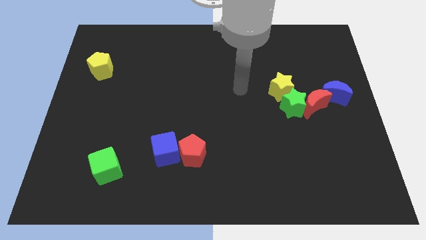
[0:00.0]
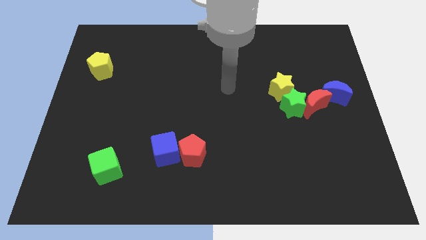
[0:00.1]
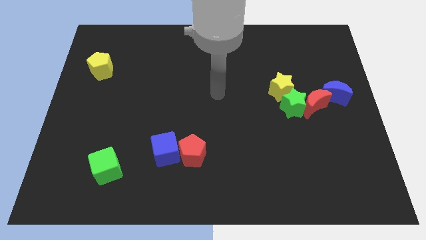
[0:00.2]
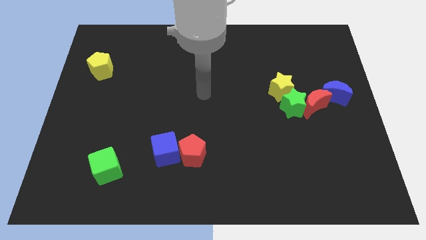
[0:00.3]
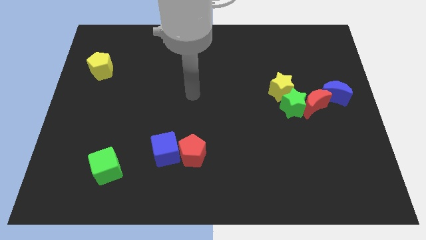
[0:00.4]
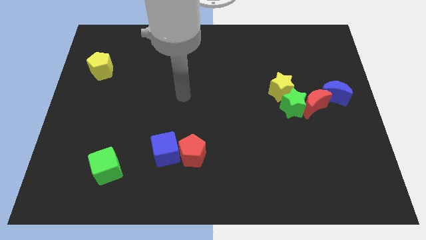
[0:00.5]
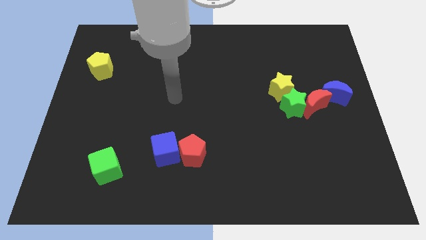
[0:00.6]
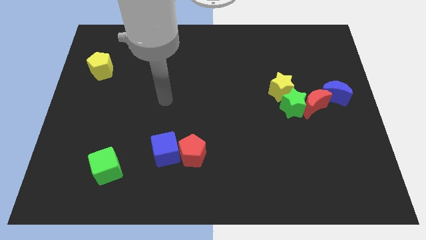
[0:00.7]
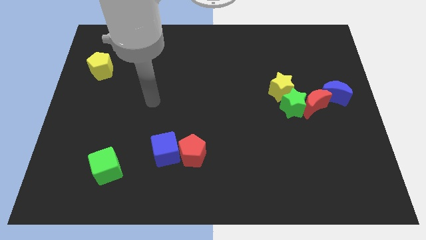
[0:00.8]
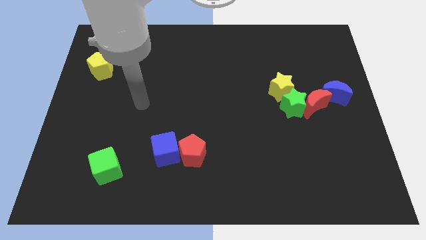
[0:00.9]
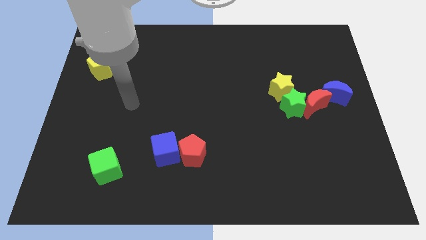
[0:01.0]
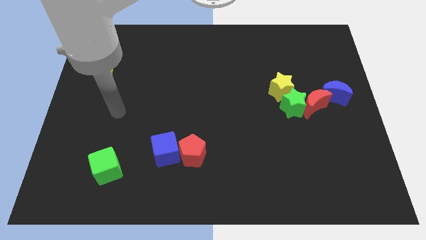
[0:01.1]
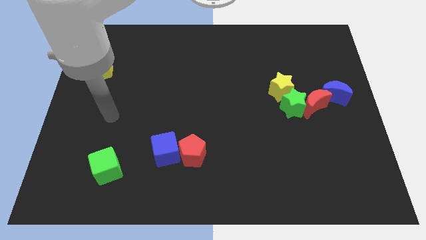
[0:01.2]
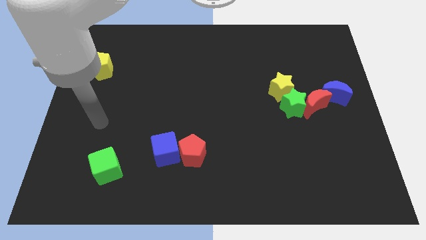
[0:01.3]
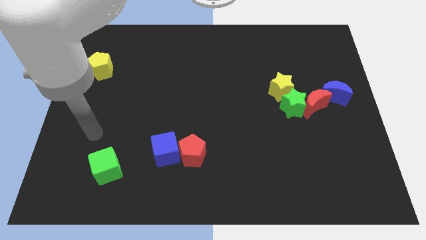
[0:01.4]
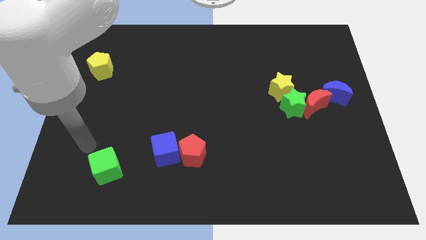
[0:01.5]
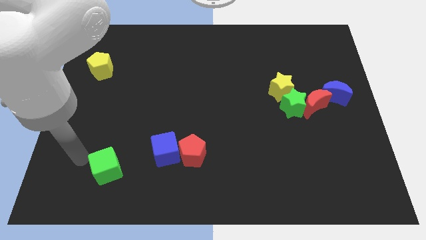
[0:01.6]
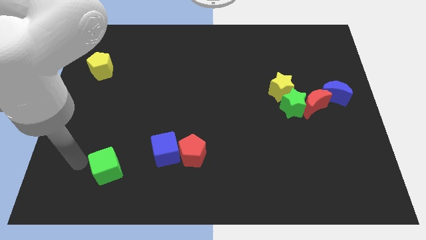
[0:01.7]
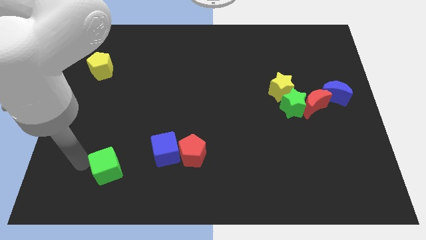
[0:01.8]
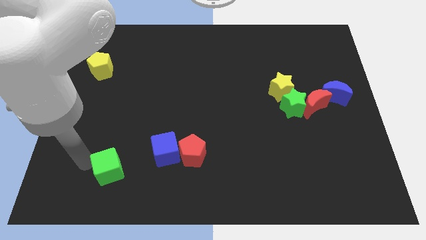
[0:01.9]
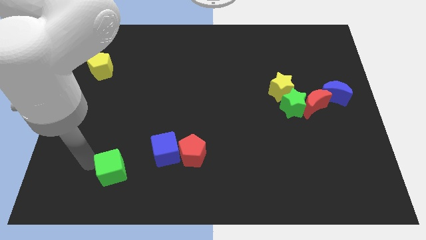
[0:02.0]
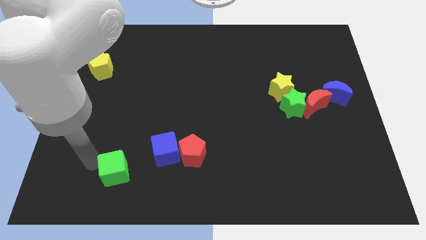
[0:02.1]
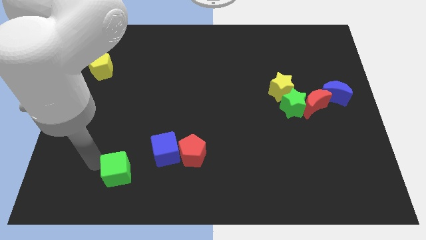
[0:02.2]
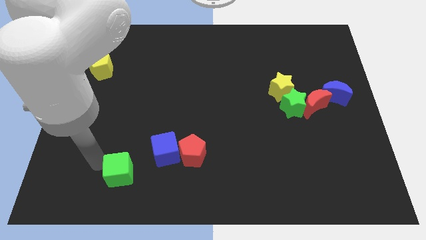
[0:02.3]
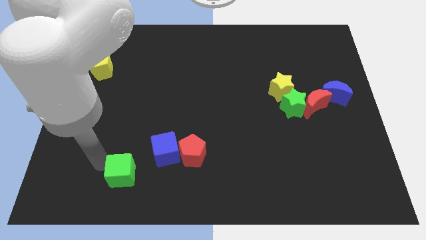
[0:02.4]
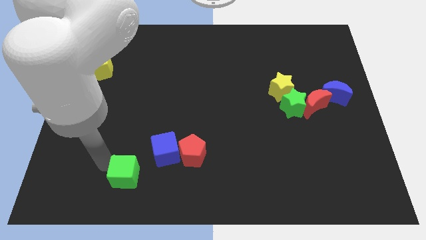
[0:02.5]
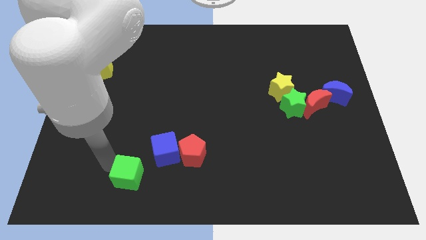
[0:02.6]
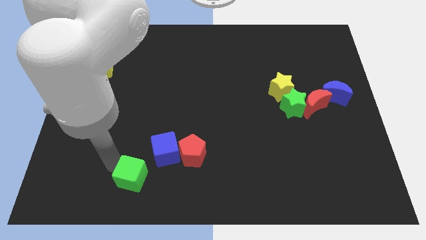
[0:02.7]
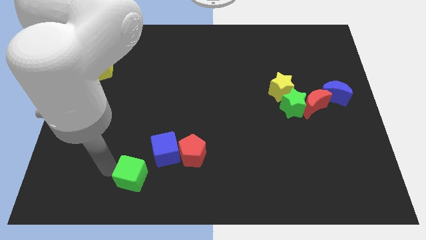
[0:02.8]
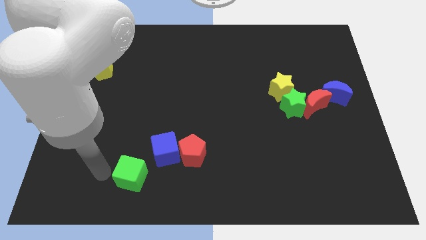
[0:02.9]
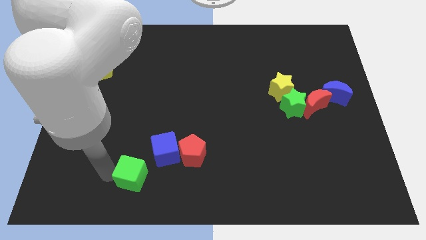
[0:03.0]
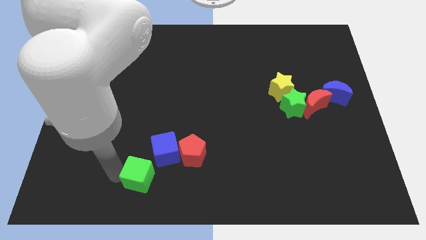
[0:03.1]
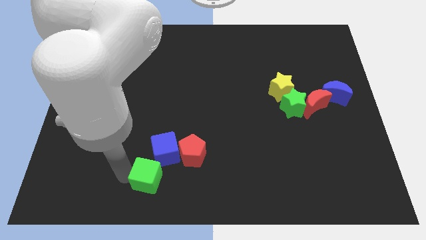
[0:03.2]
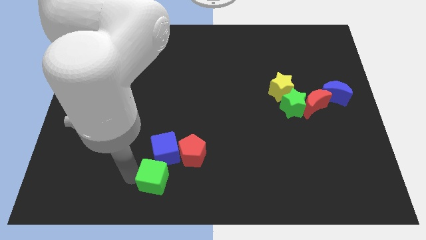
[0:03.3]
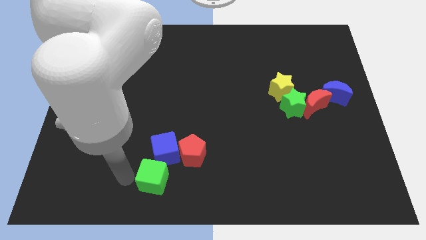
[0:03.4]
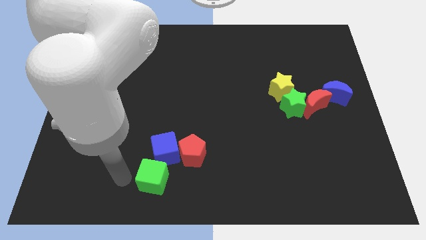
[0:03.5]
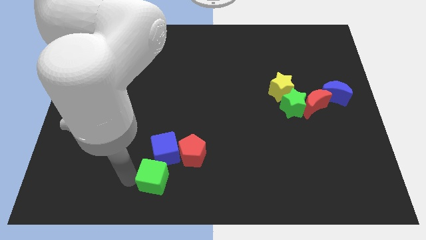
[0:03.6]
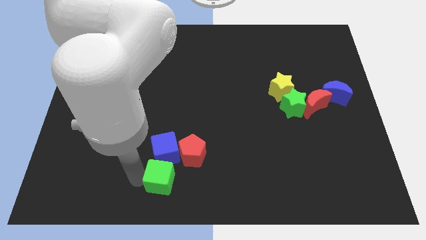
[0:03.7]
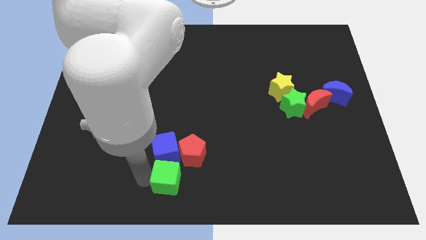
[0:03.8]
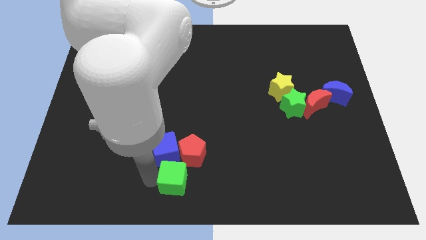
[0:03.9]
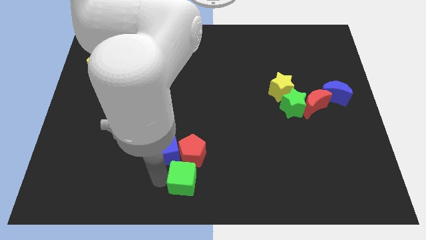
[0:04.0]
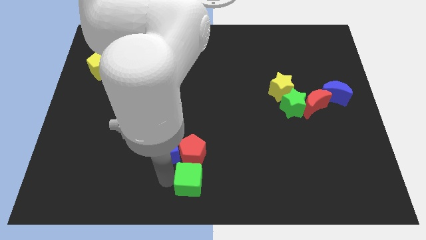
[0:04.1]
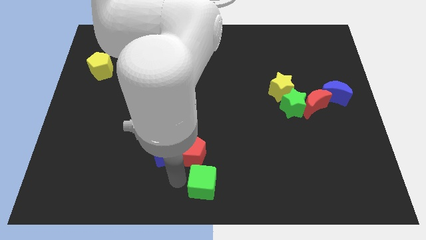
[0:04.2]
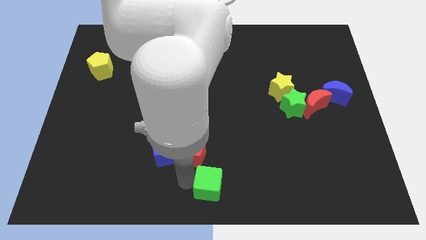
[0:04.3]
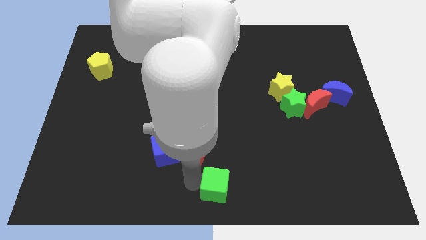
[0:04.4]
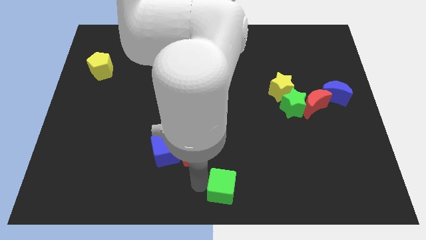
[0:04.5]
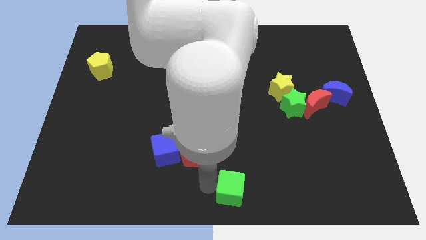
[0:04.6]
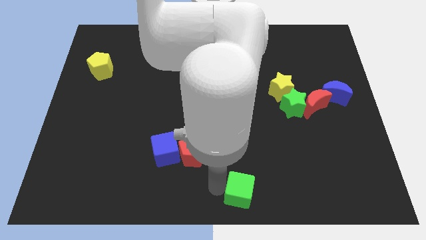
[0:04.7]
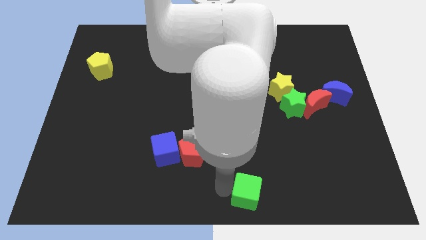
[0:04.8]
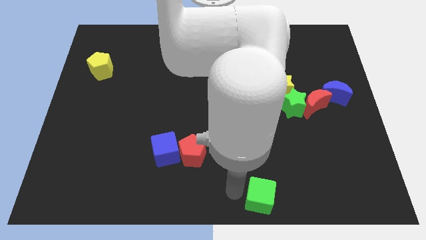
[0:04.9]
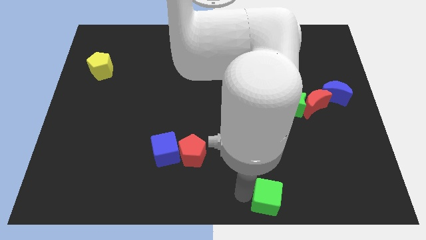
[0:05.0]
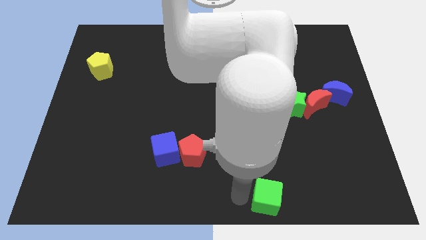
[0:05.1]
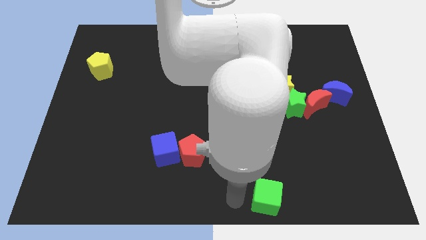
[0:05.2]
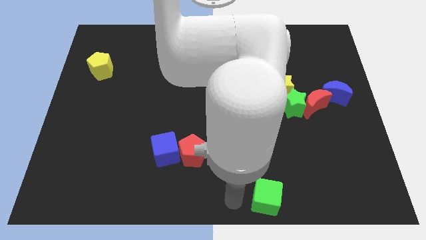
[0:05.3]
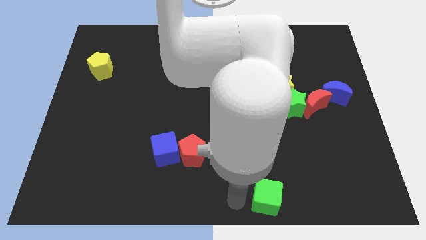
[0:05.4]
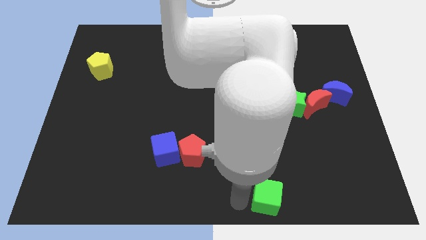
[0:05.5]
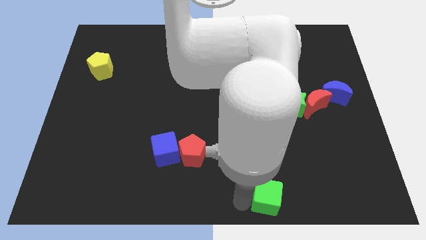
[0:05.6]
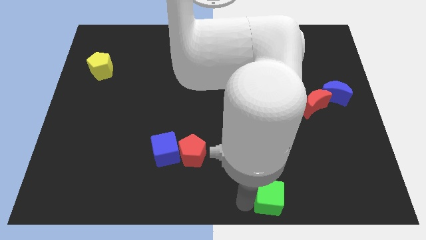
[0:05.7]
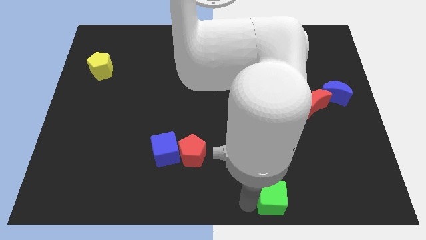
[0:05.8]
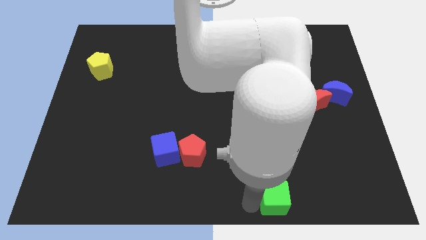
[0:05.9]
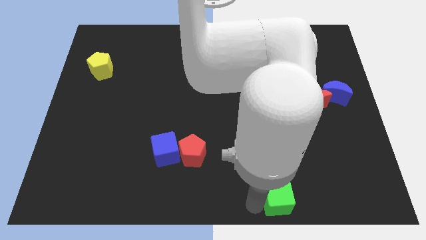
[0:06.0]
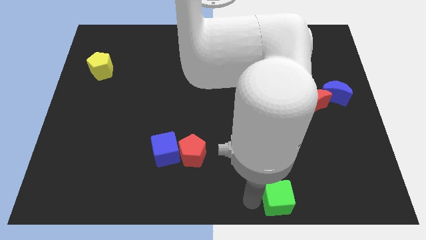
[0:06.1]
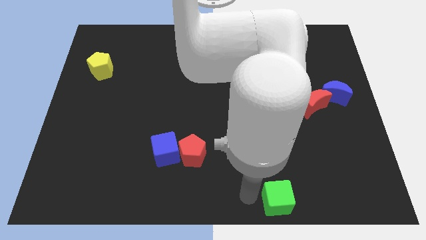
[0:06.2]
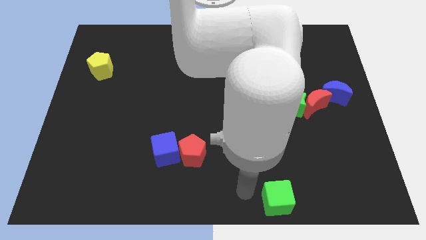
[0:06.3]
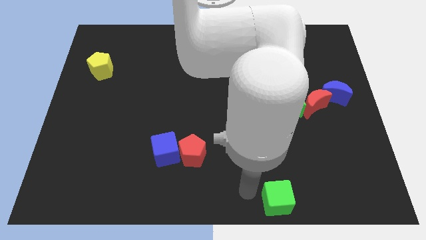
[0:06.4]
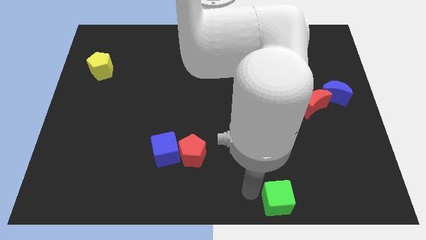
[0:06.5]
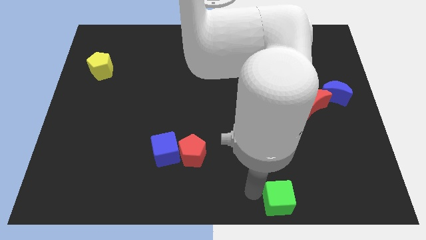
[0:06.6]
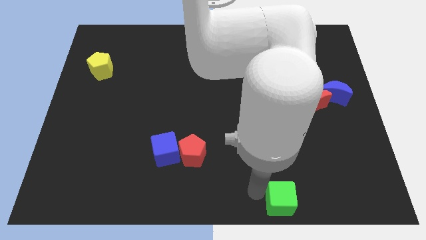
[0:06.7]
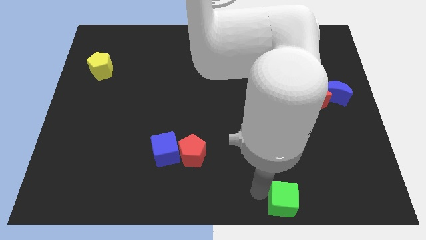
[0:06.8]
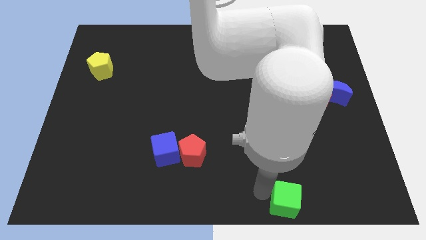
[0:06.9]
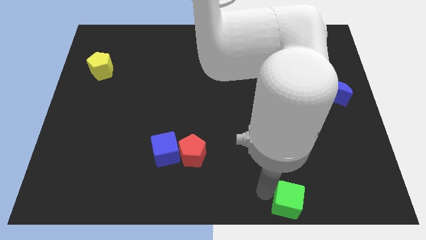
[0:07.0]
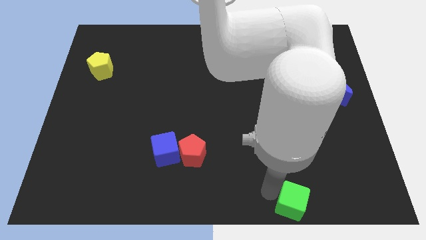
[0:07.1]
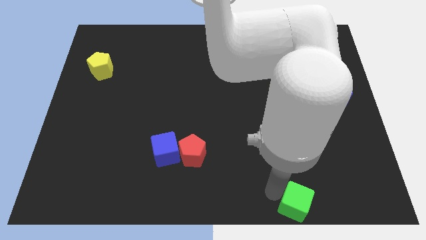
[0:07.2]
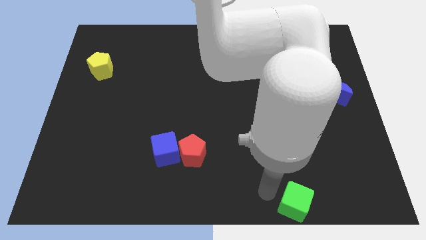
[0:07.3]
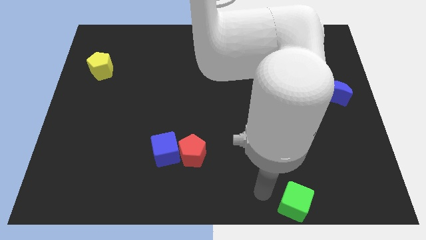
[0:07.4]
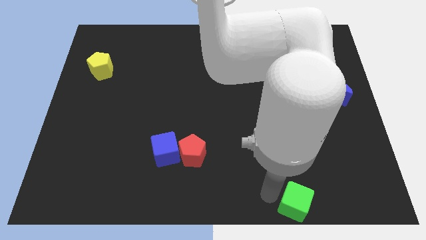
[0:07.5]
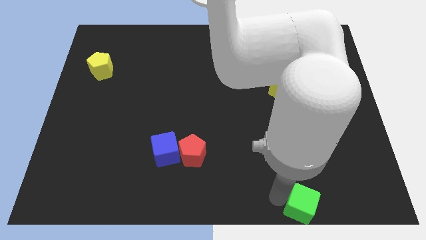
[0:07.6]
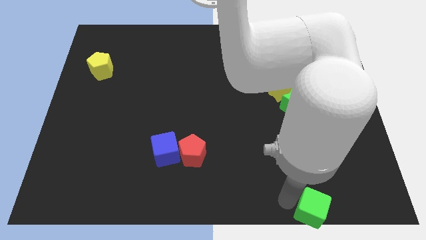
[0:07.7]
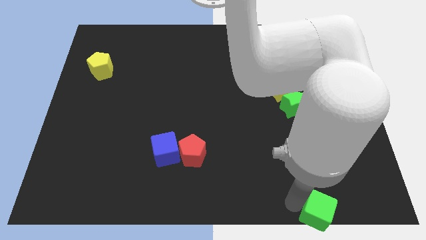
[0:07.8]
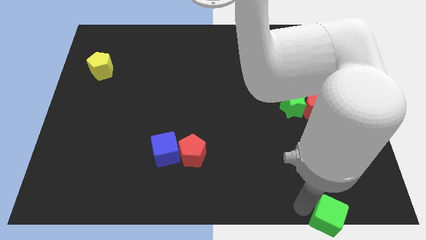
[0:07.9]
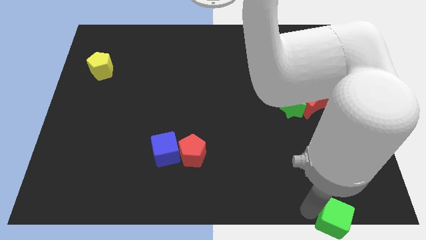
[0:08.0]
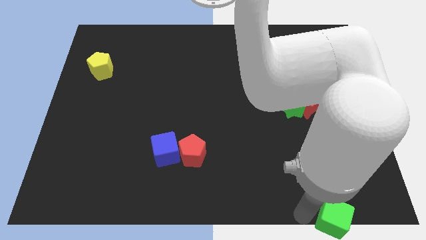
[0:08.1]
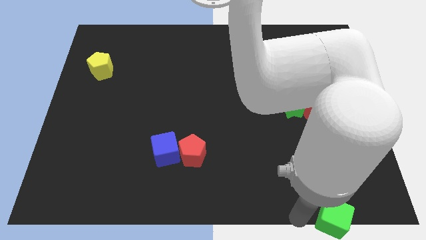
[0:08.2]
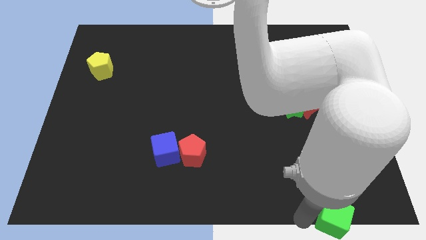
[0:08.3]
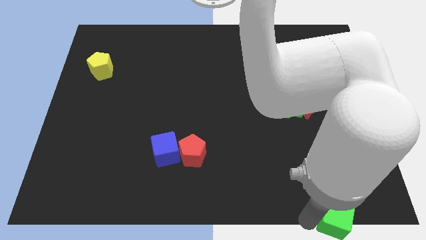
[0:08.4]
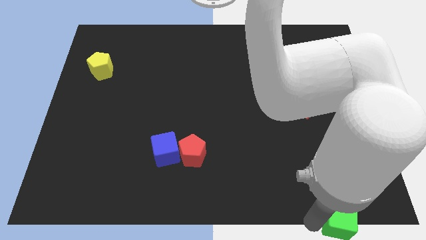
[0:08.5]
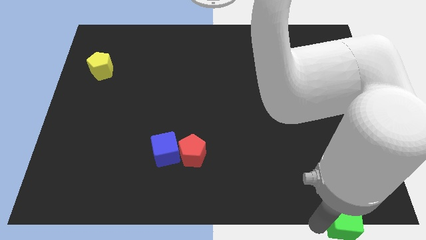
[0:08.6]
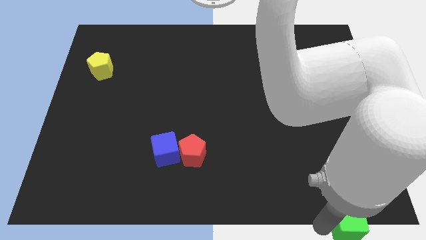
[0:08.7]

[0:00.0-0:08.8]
move the green cube to the bottom right of the board
